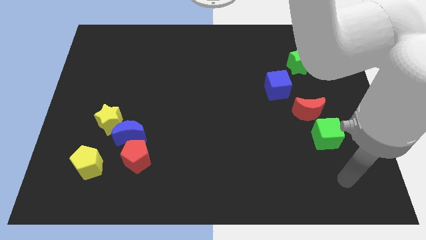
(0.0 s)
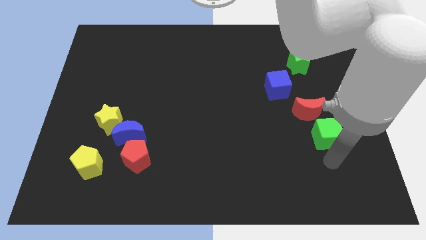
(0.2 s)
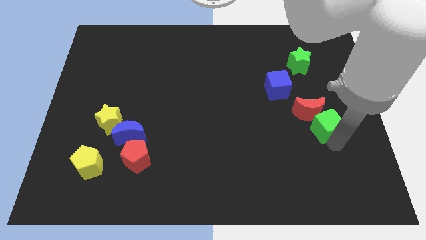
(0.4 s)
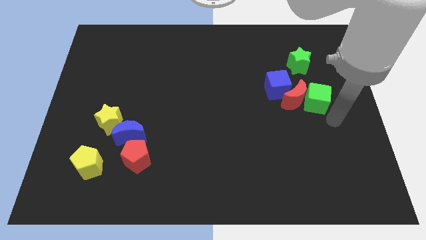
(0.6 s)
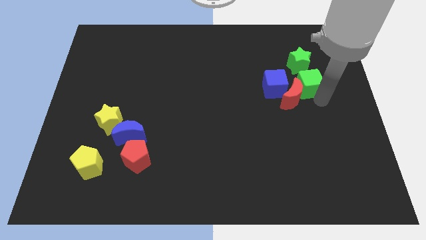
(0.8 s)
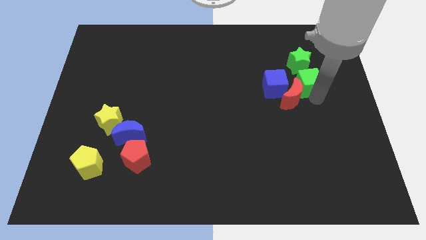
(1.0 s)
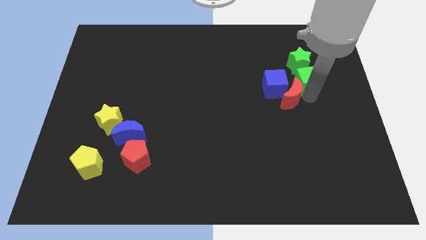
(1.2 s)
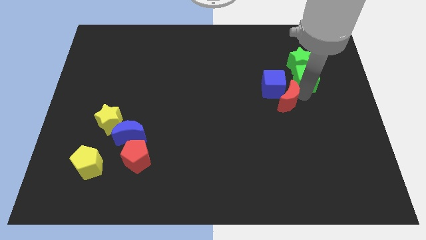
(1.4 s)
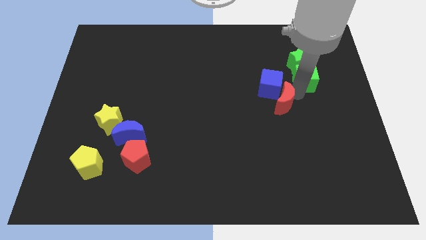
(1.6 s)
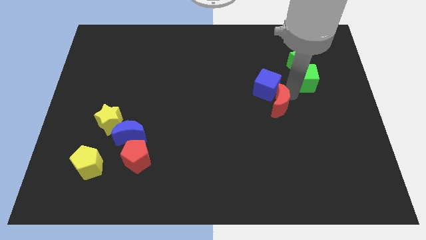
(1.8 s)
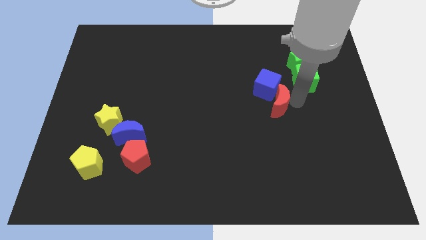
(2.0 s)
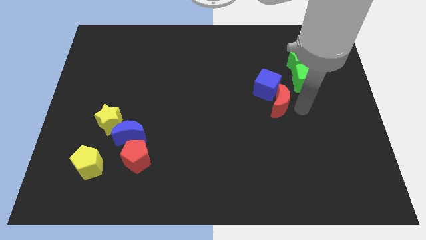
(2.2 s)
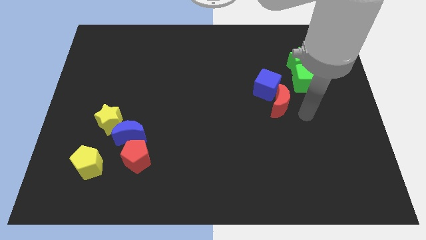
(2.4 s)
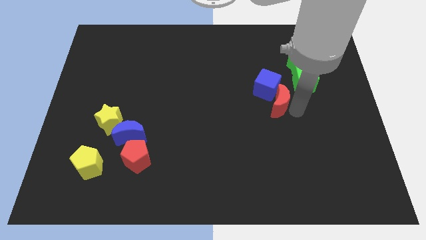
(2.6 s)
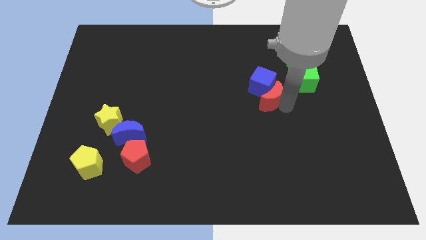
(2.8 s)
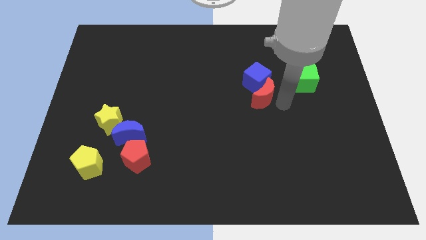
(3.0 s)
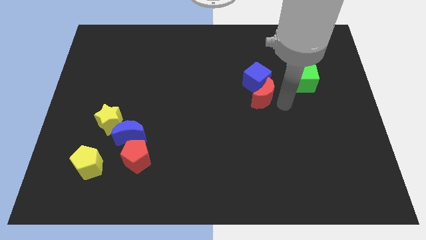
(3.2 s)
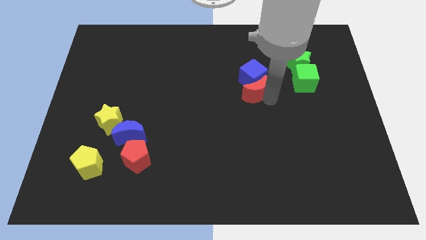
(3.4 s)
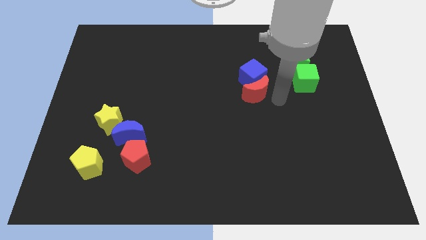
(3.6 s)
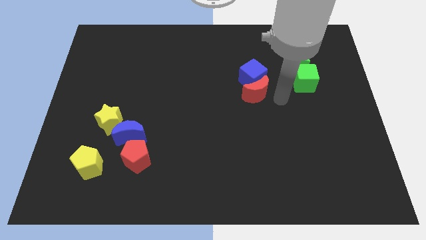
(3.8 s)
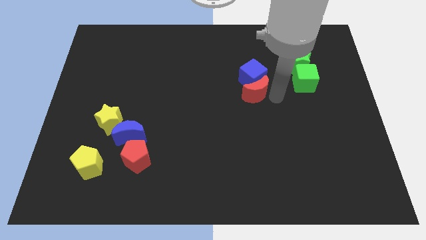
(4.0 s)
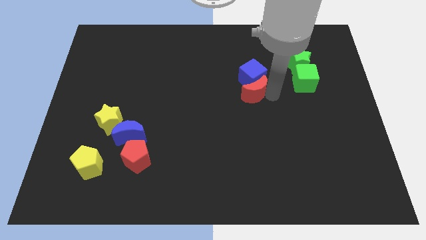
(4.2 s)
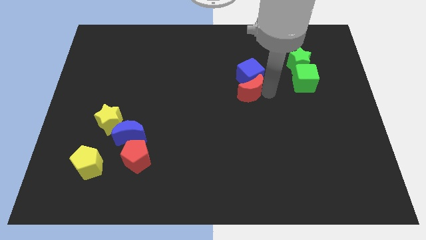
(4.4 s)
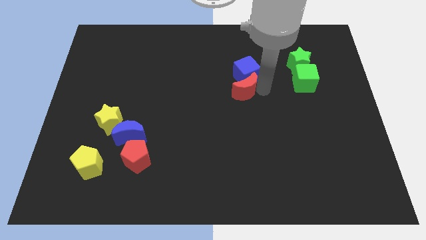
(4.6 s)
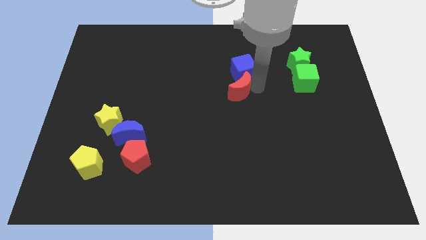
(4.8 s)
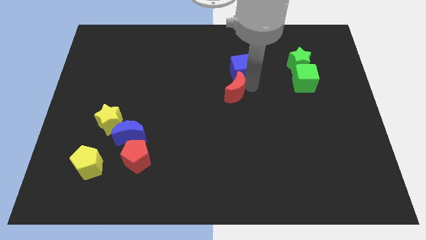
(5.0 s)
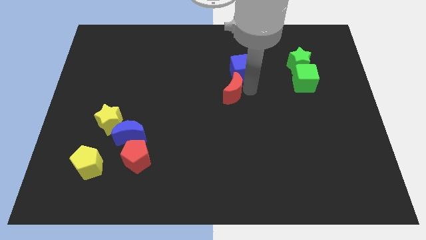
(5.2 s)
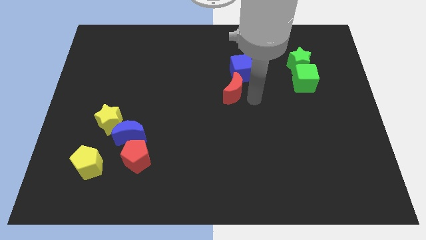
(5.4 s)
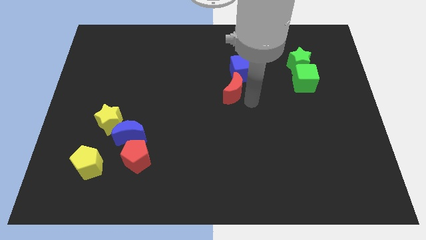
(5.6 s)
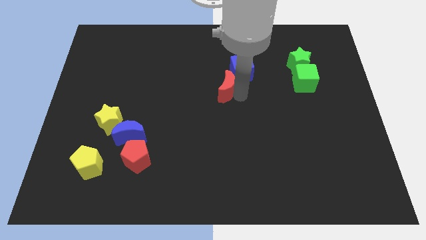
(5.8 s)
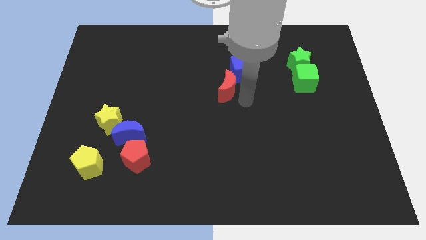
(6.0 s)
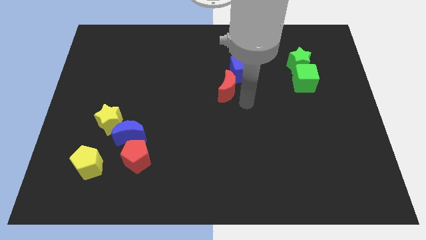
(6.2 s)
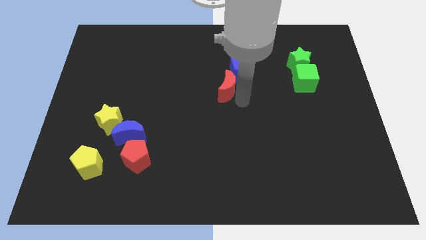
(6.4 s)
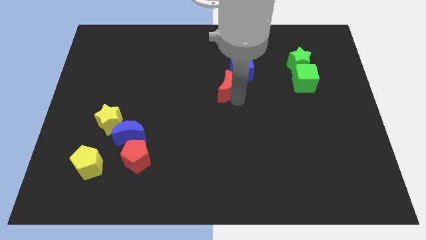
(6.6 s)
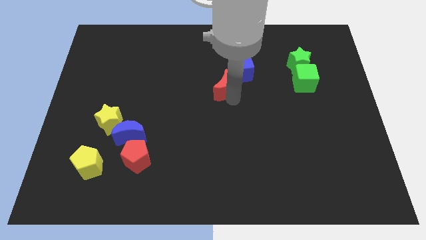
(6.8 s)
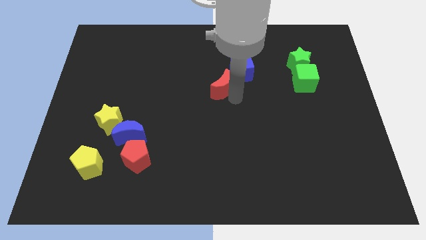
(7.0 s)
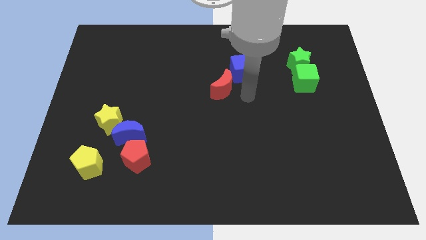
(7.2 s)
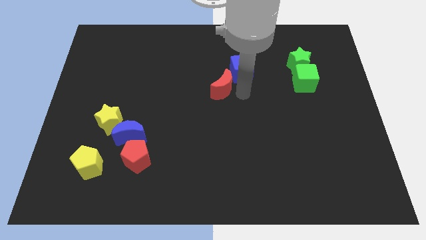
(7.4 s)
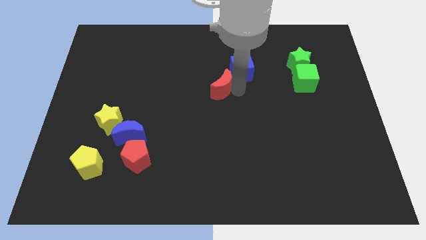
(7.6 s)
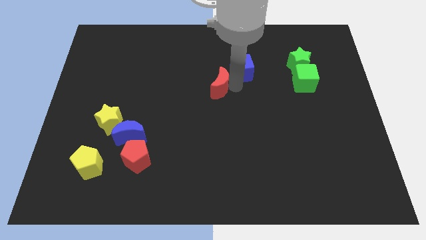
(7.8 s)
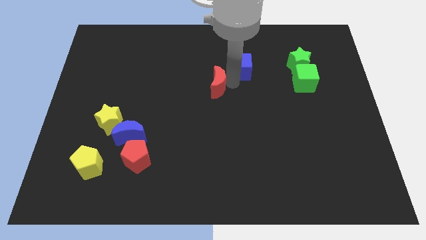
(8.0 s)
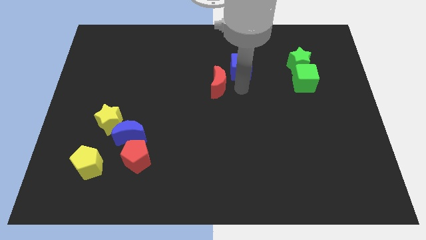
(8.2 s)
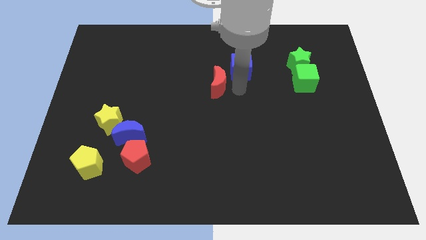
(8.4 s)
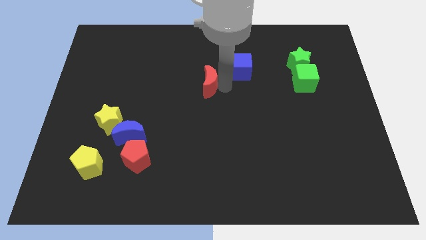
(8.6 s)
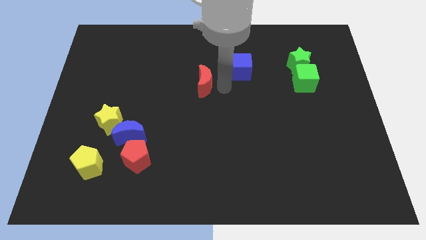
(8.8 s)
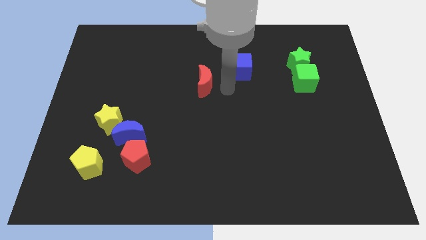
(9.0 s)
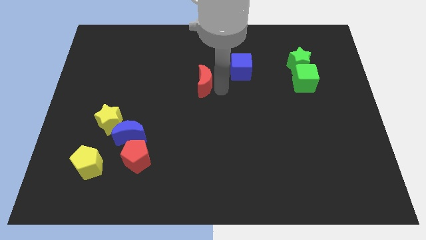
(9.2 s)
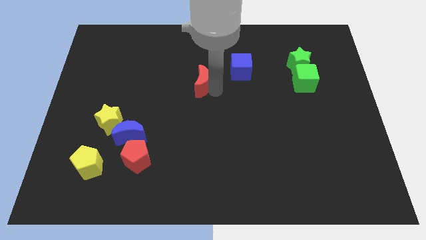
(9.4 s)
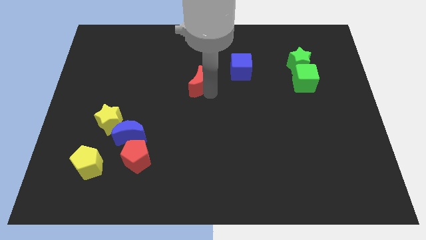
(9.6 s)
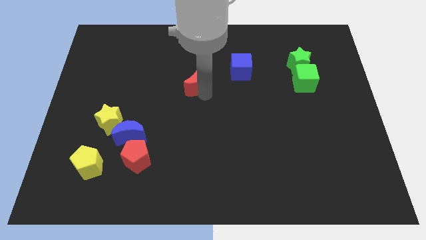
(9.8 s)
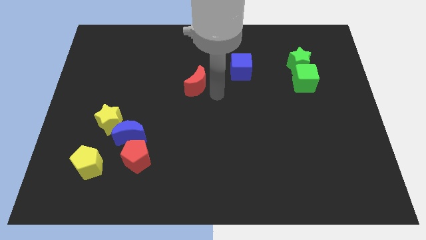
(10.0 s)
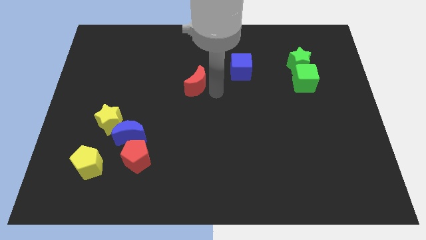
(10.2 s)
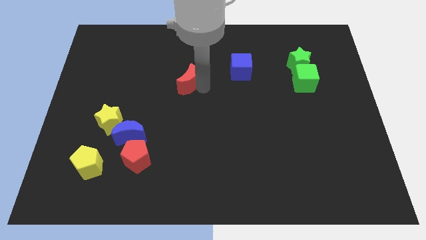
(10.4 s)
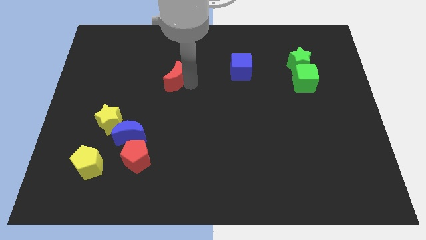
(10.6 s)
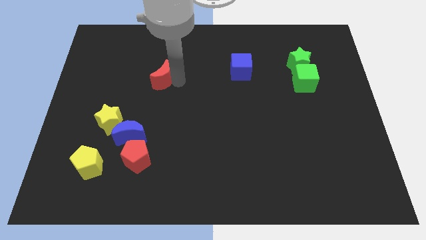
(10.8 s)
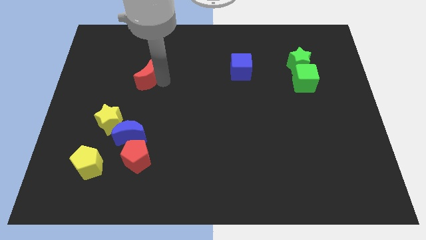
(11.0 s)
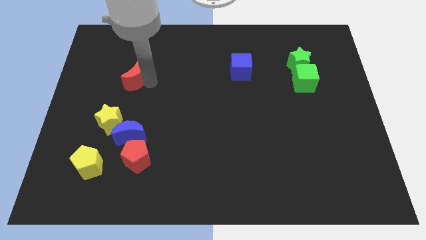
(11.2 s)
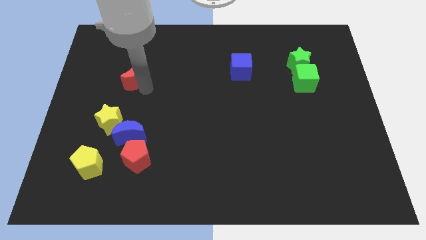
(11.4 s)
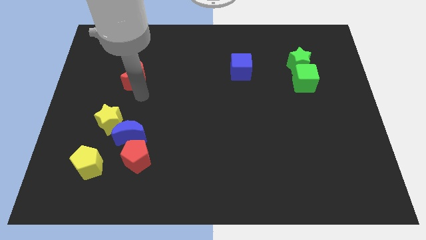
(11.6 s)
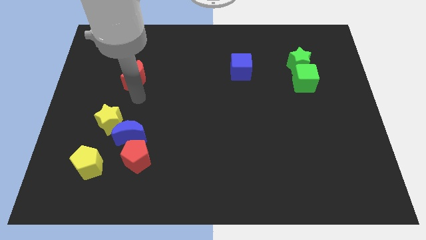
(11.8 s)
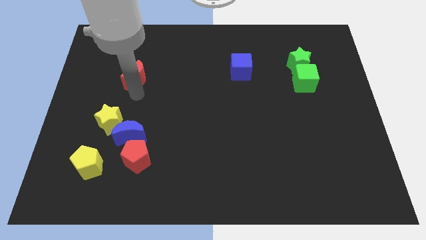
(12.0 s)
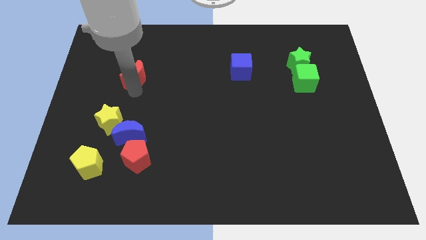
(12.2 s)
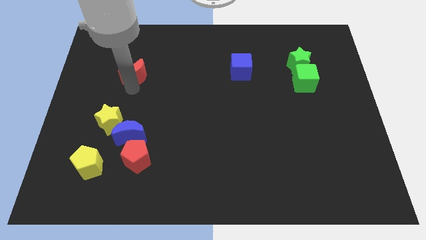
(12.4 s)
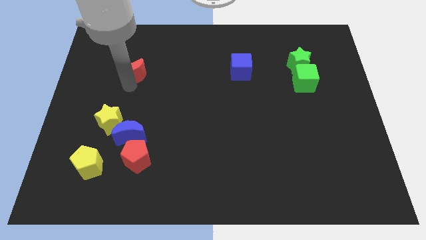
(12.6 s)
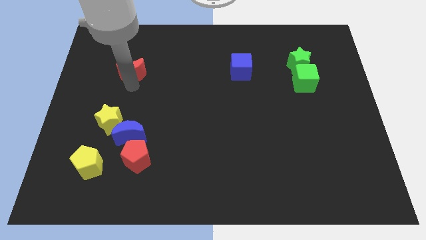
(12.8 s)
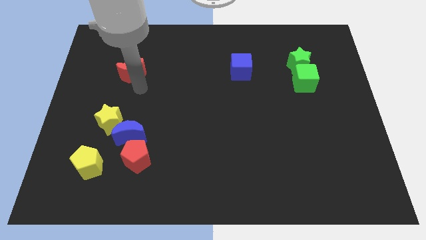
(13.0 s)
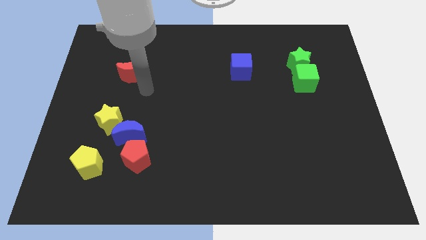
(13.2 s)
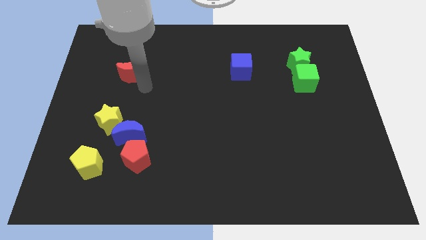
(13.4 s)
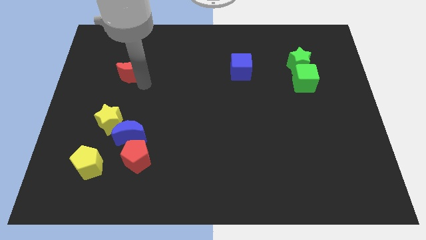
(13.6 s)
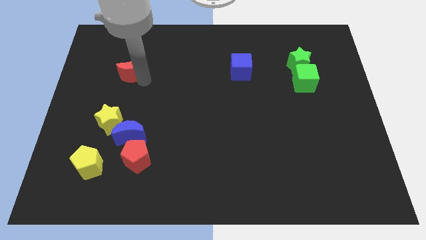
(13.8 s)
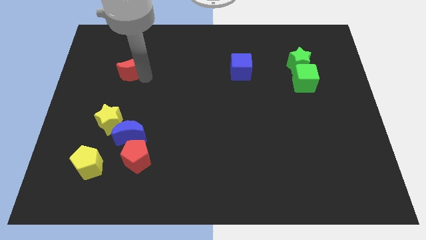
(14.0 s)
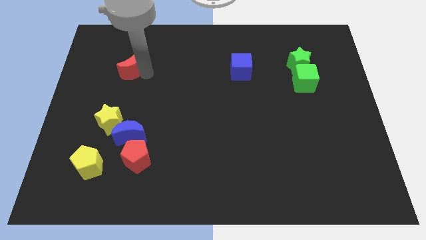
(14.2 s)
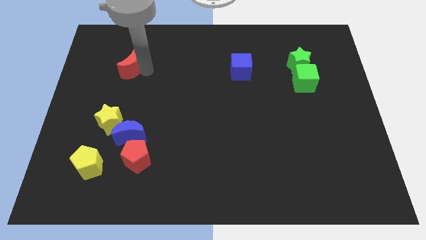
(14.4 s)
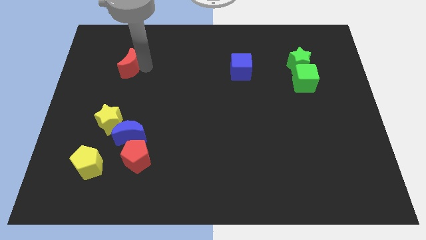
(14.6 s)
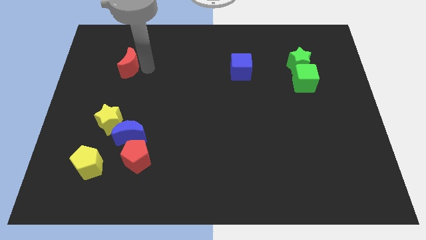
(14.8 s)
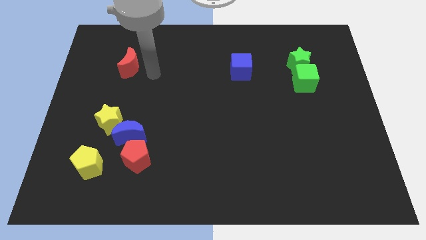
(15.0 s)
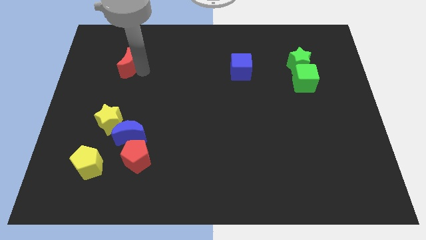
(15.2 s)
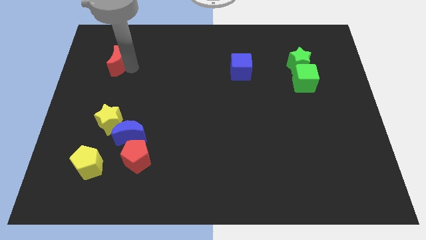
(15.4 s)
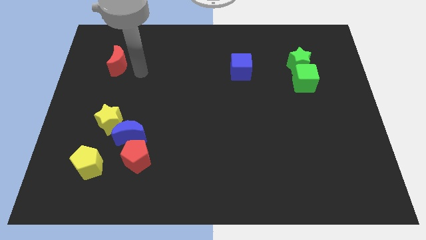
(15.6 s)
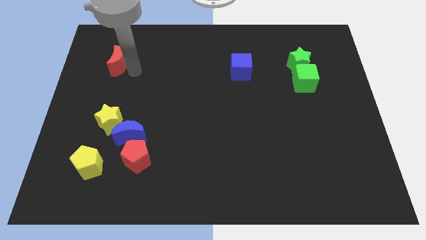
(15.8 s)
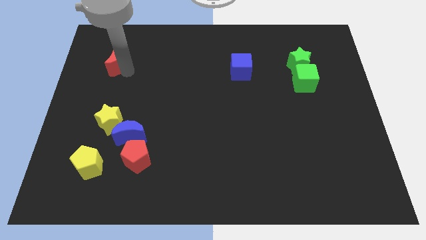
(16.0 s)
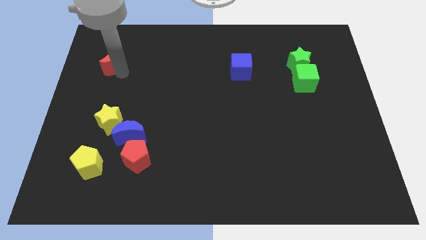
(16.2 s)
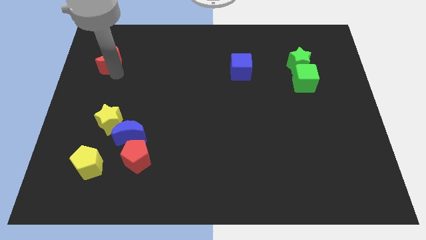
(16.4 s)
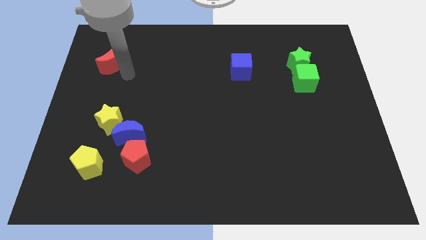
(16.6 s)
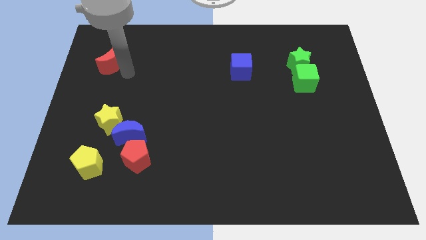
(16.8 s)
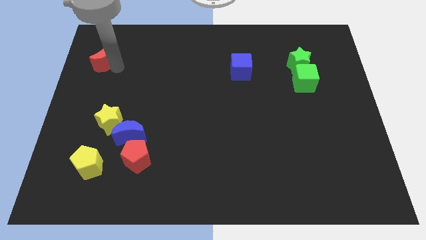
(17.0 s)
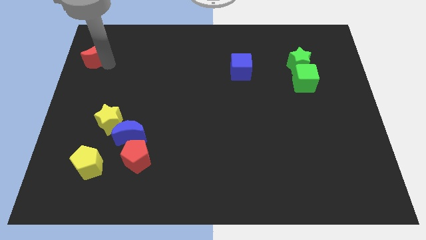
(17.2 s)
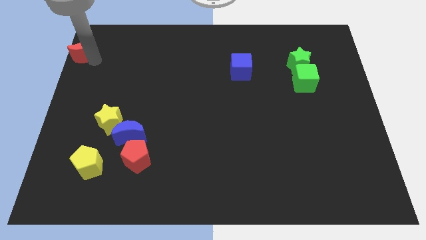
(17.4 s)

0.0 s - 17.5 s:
push the red moon to the upper left corner
